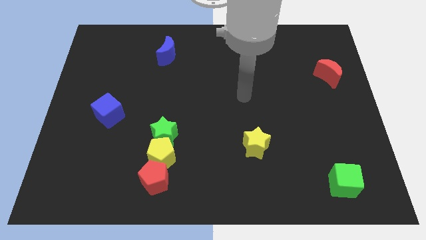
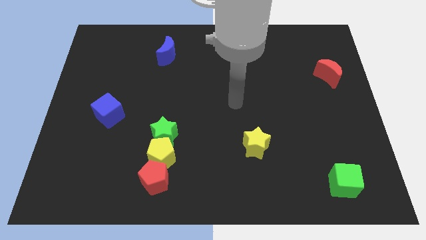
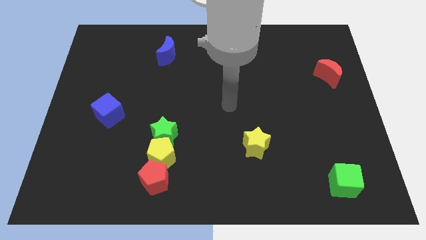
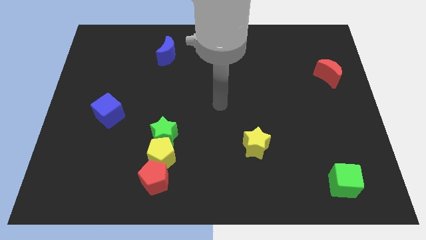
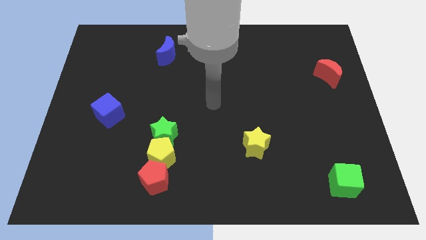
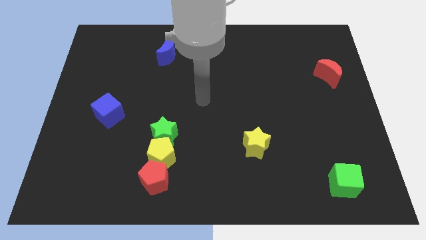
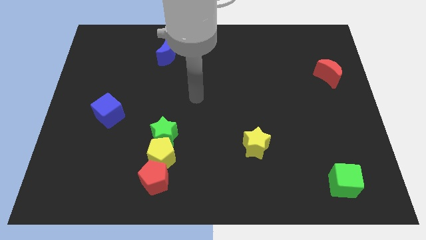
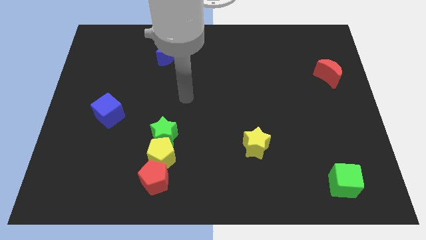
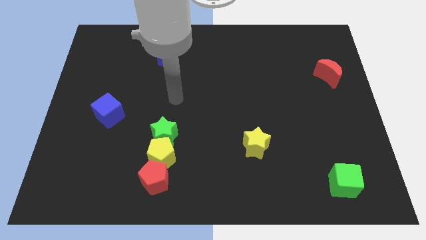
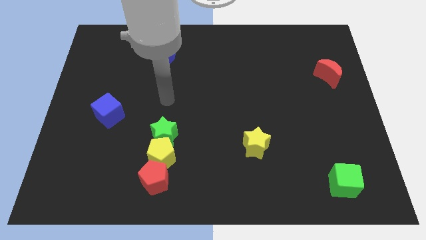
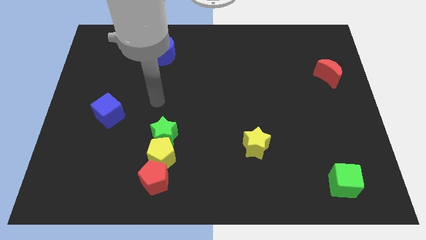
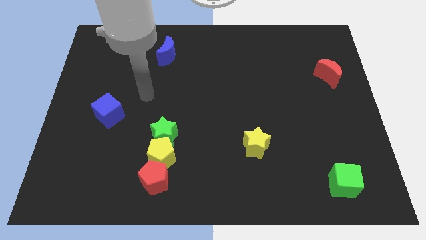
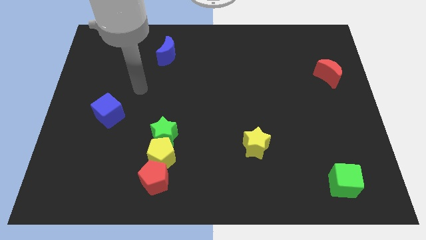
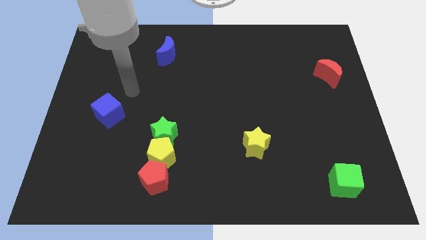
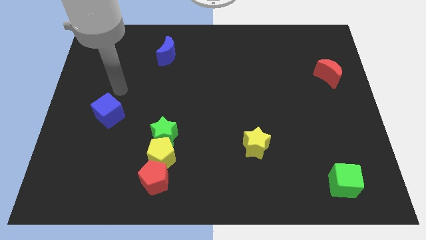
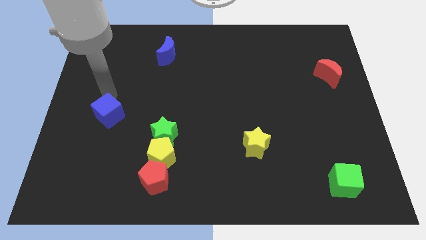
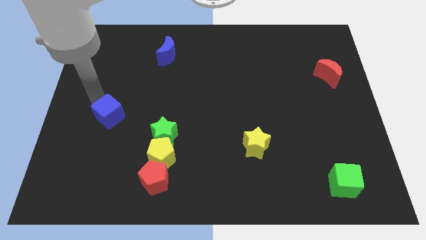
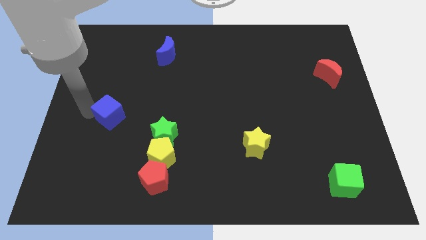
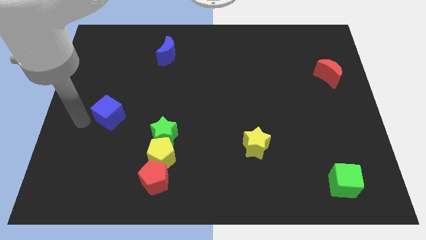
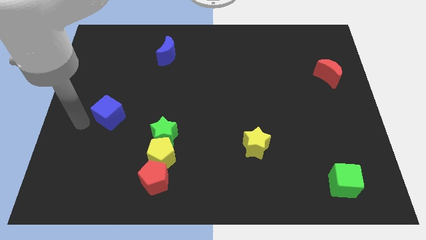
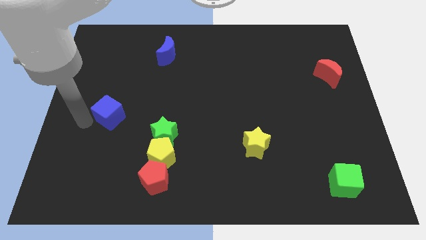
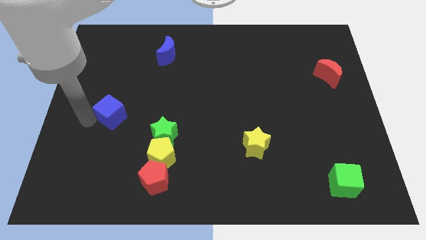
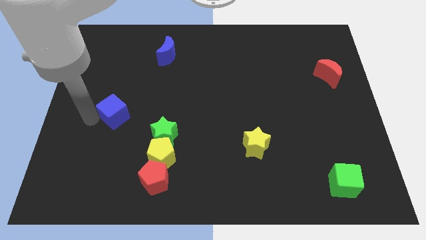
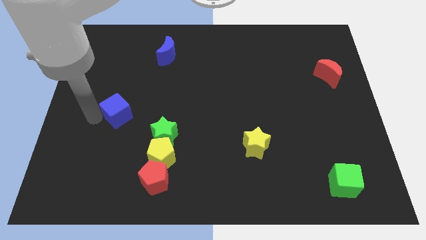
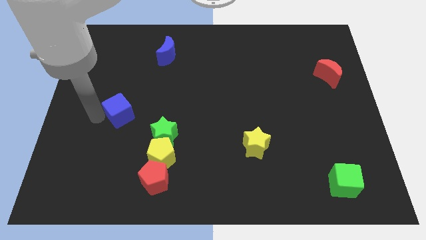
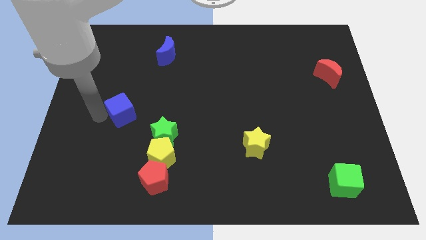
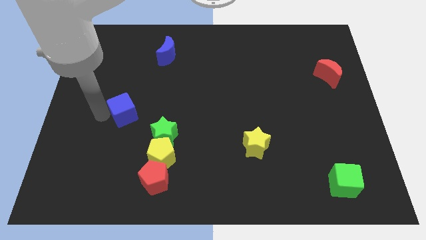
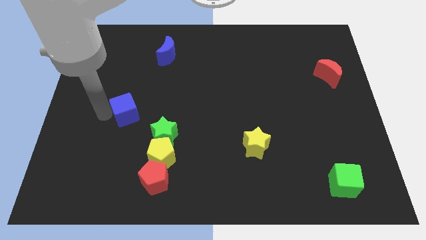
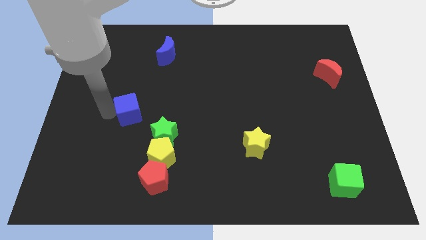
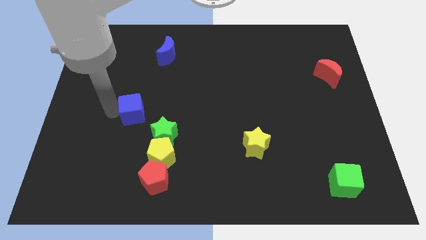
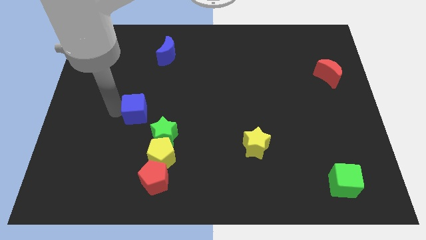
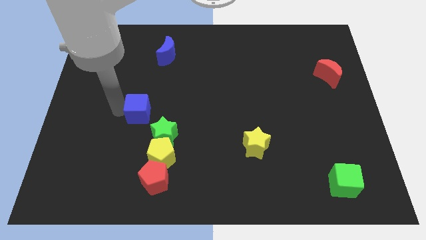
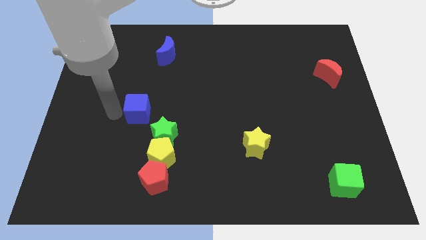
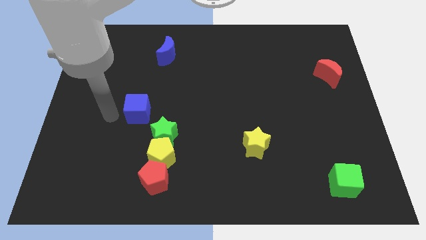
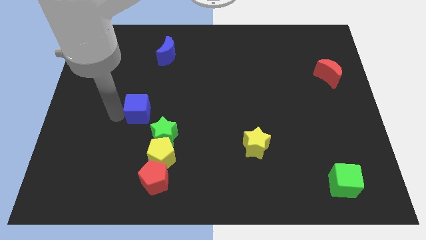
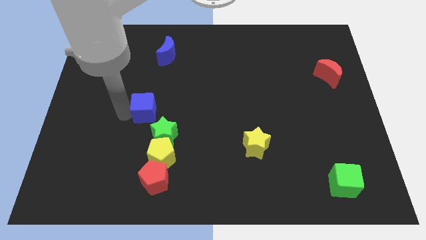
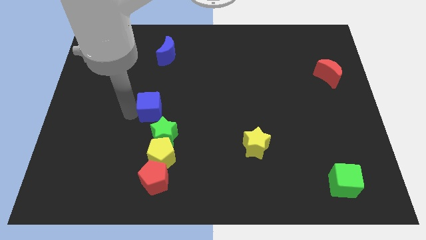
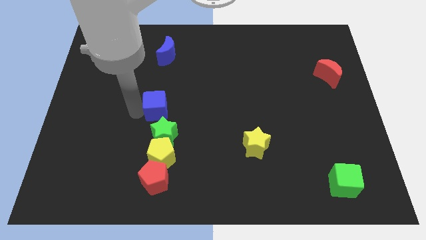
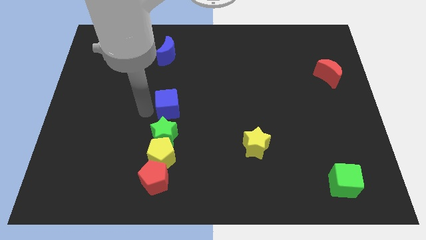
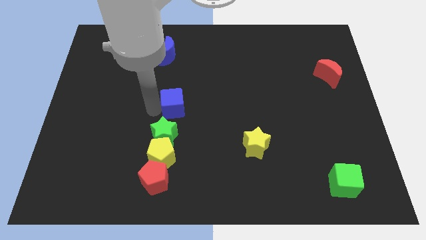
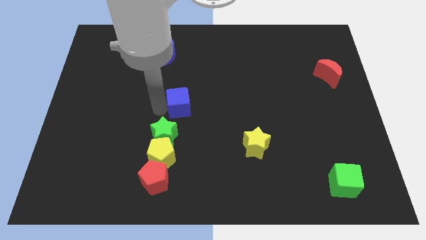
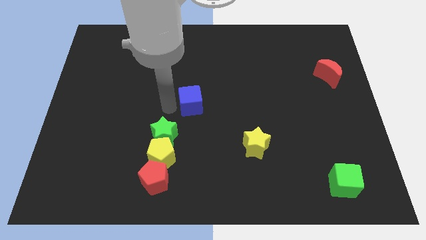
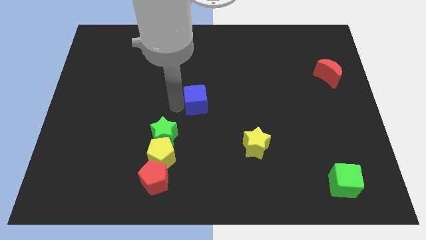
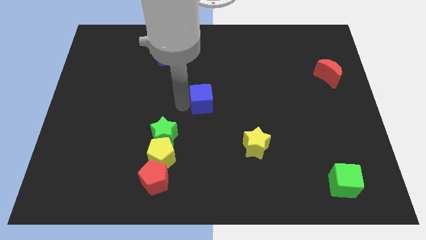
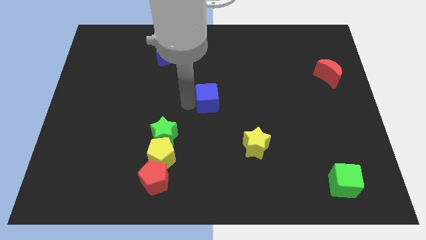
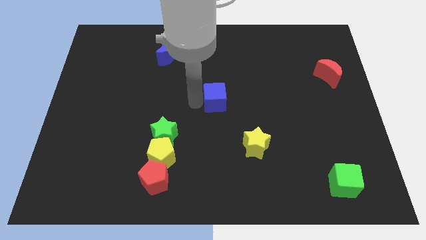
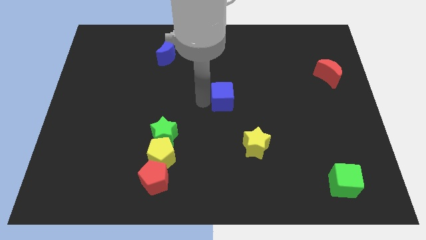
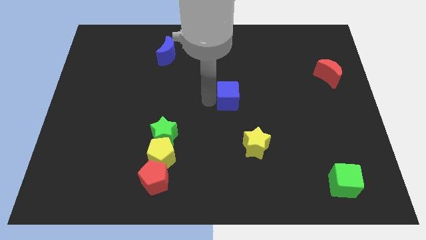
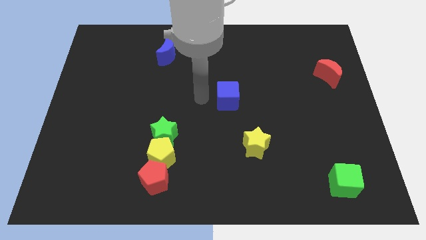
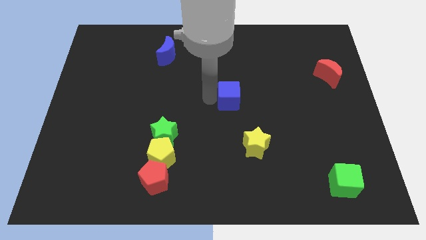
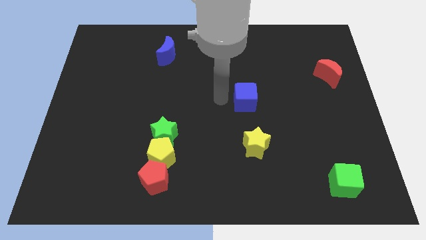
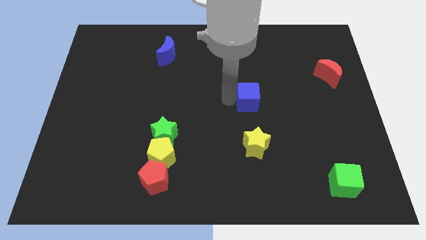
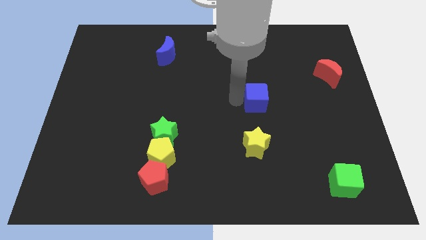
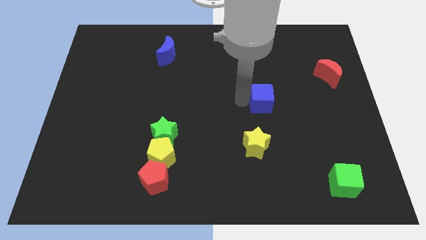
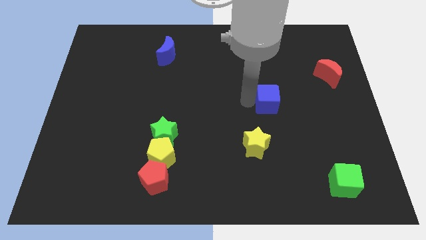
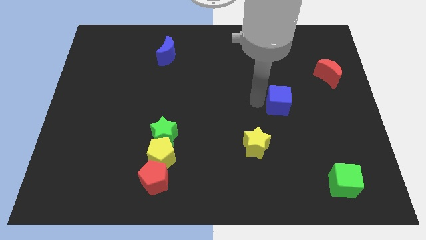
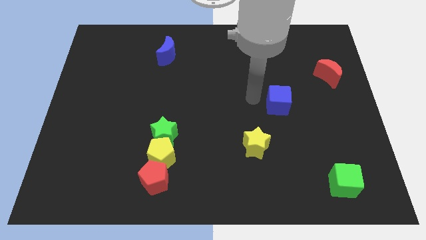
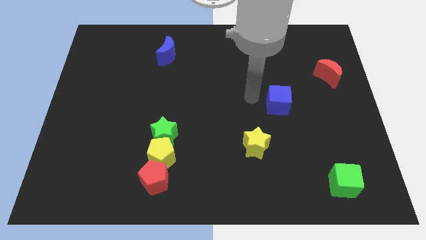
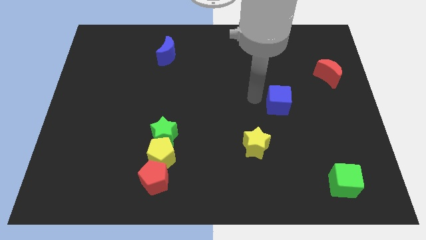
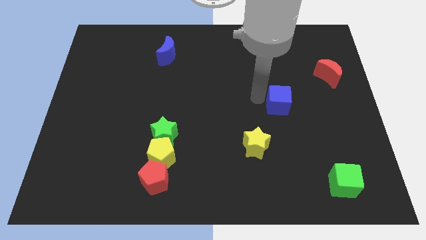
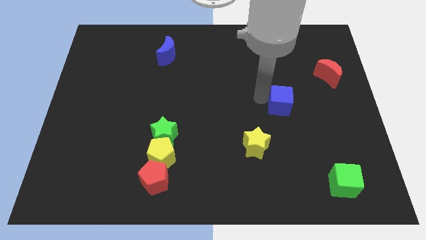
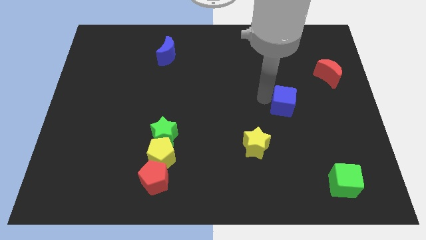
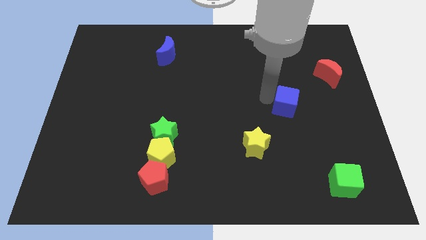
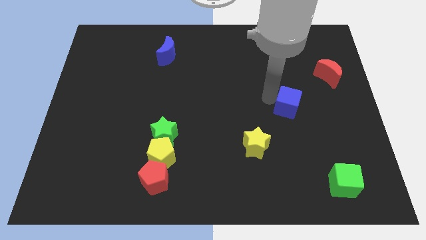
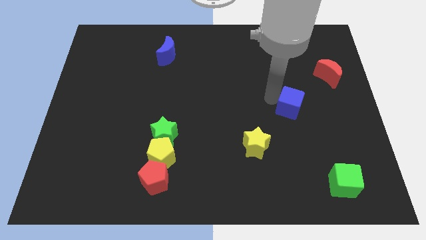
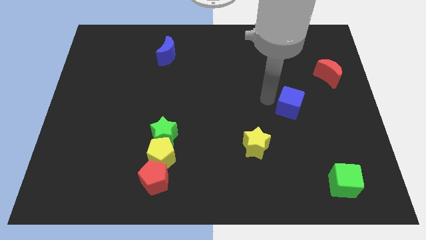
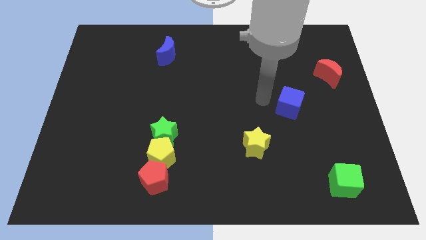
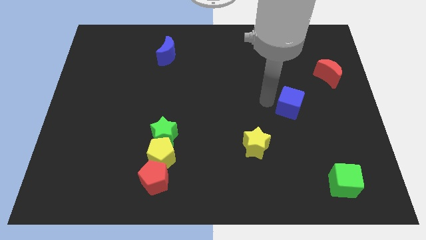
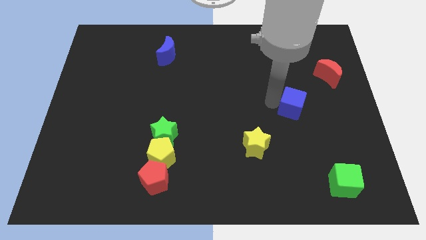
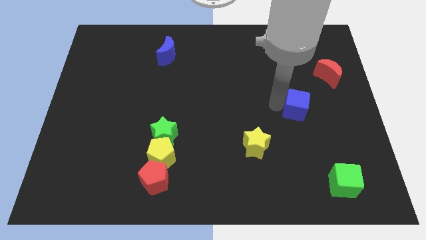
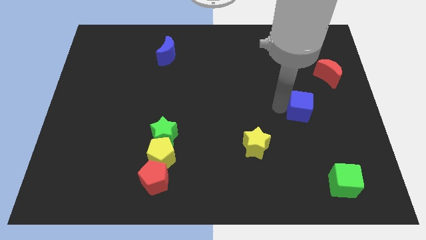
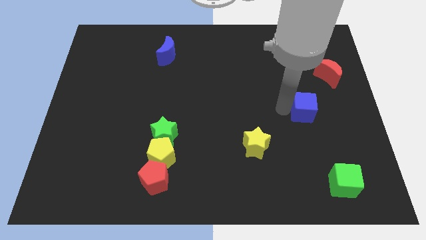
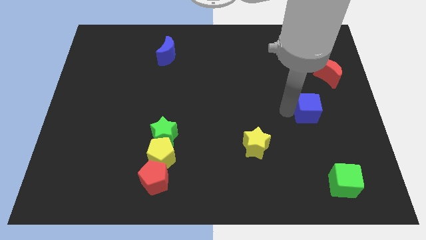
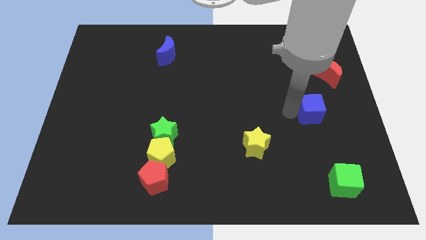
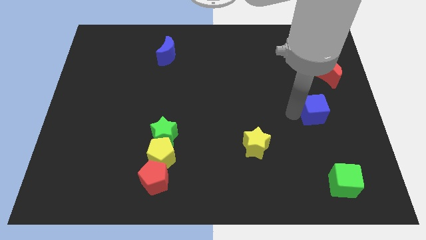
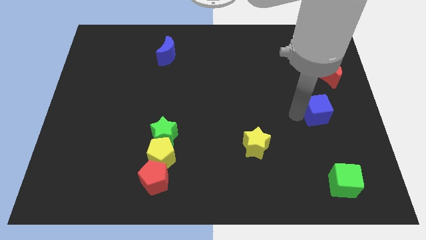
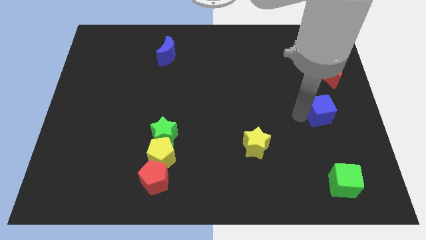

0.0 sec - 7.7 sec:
push the blue cube to the bottom side of the red moon
